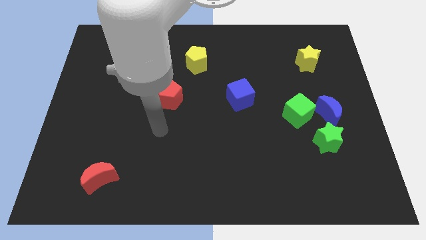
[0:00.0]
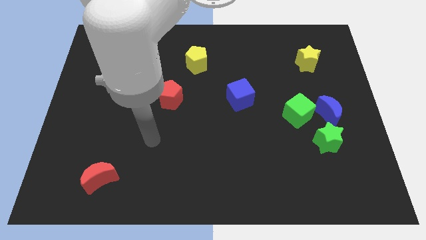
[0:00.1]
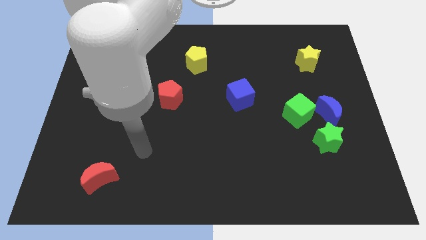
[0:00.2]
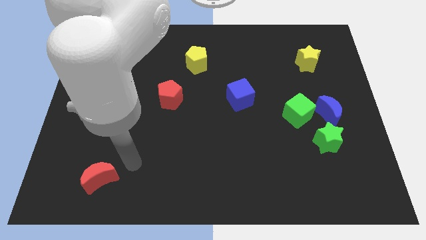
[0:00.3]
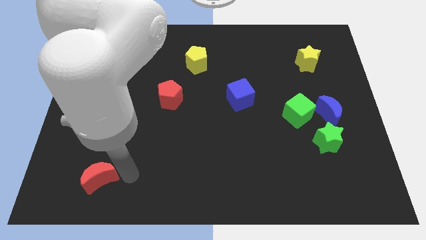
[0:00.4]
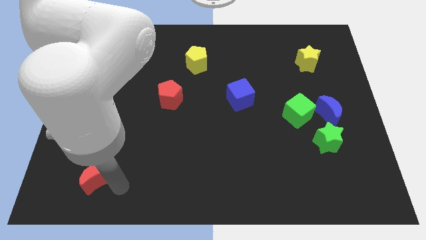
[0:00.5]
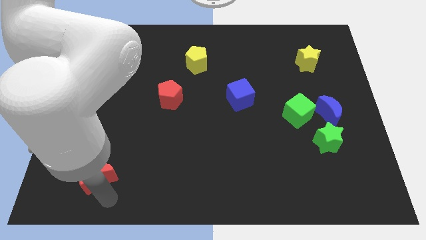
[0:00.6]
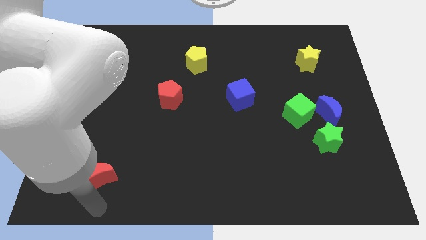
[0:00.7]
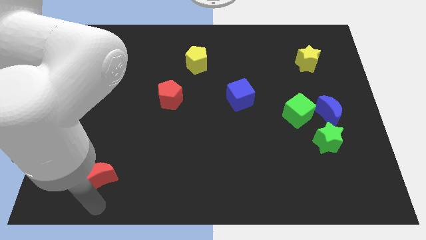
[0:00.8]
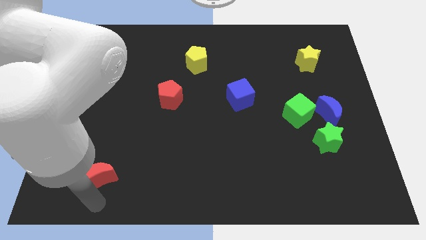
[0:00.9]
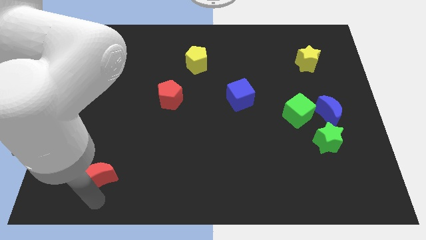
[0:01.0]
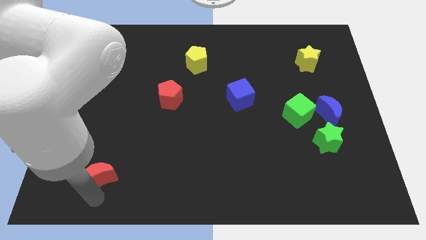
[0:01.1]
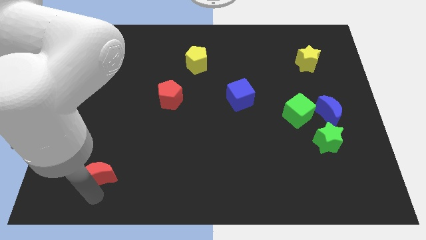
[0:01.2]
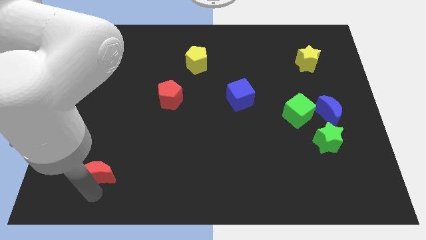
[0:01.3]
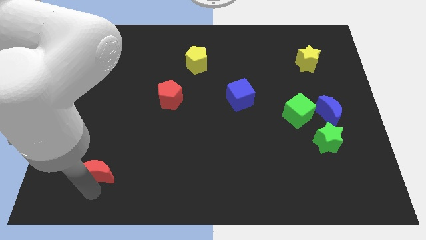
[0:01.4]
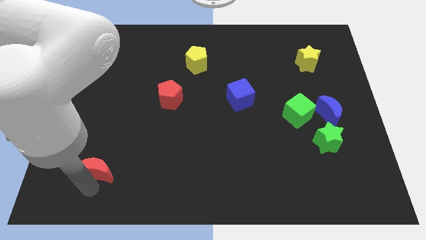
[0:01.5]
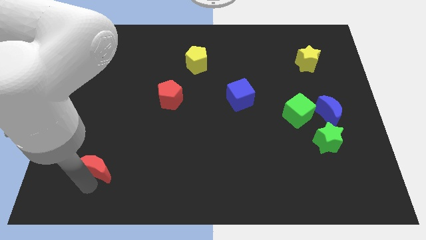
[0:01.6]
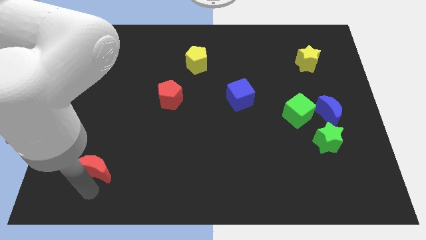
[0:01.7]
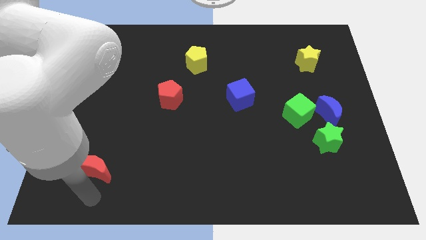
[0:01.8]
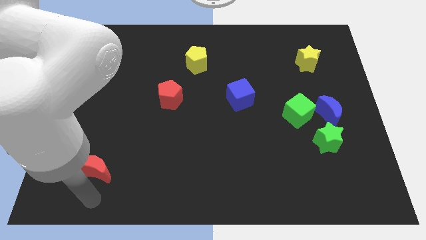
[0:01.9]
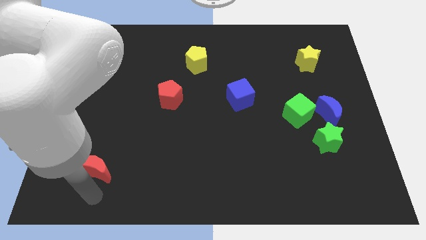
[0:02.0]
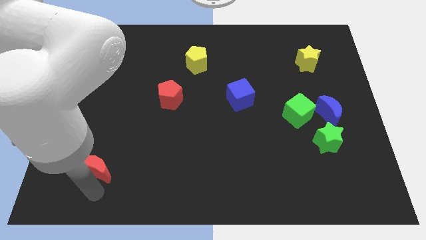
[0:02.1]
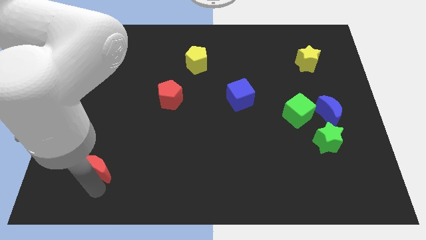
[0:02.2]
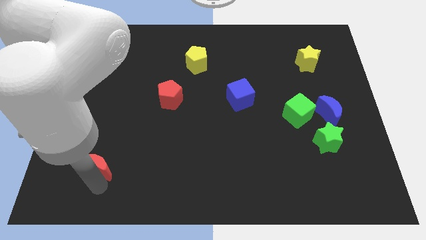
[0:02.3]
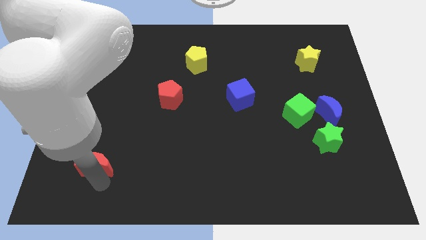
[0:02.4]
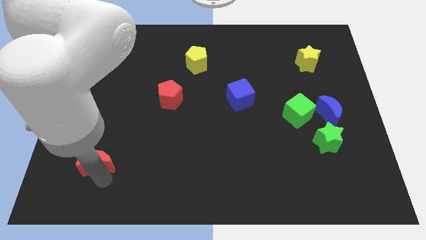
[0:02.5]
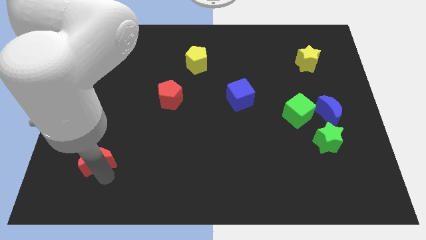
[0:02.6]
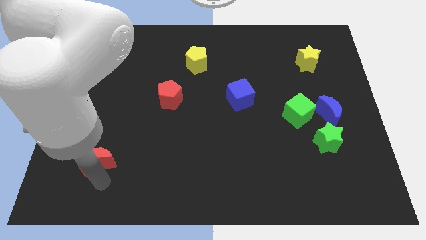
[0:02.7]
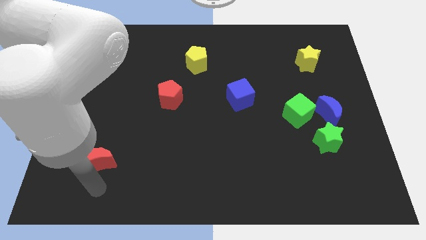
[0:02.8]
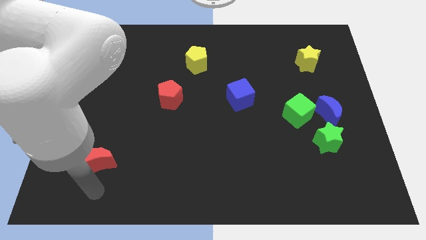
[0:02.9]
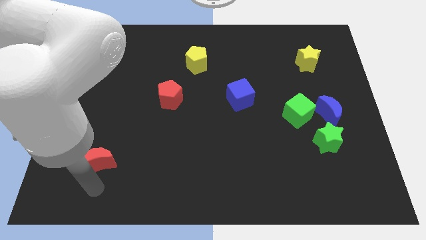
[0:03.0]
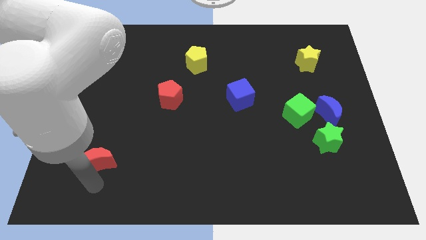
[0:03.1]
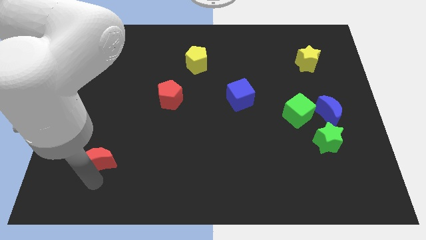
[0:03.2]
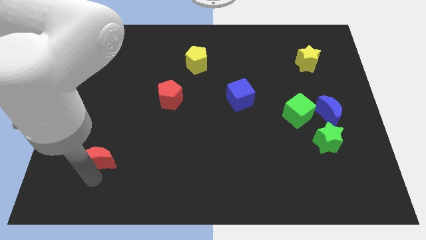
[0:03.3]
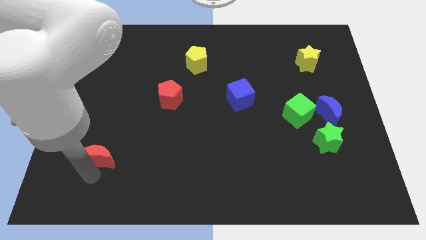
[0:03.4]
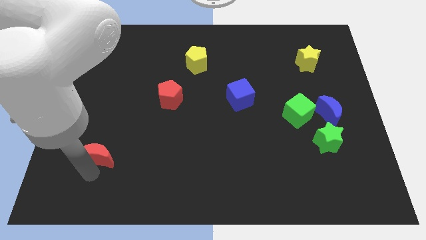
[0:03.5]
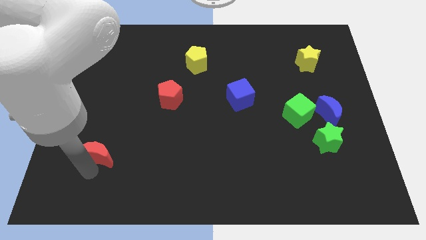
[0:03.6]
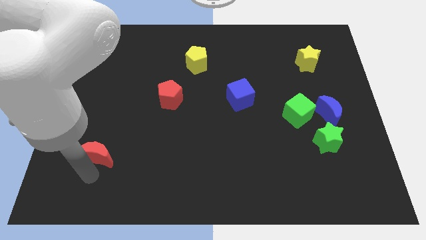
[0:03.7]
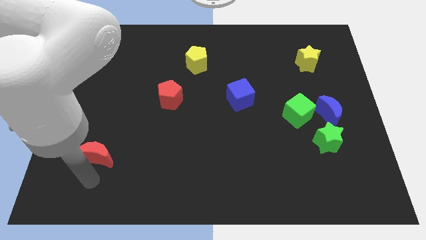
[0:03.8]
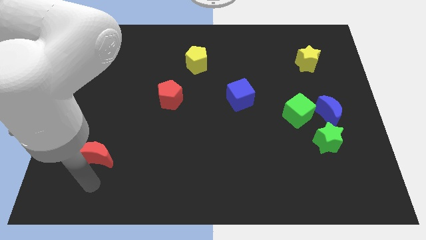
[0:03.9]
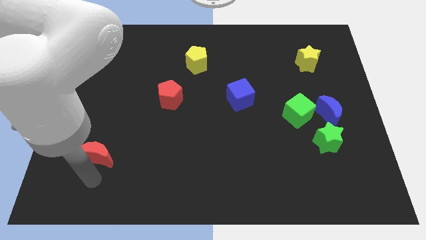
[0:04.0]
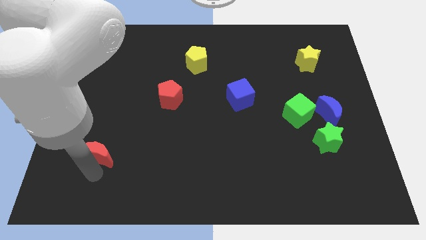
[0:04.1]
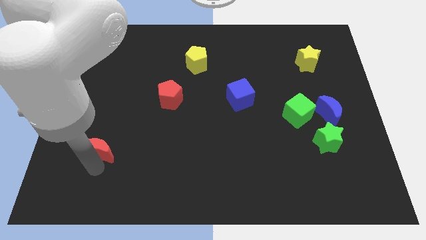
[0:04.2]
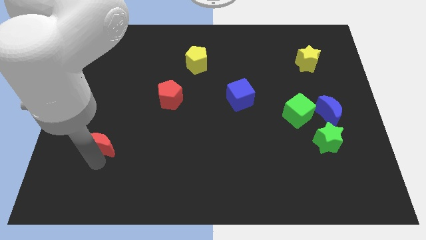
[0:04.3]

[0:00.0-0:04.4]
slightly move the red moon up

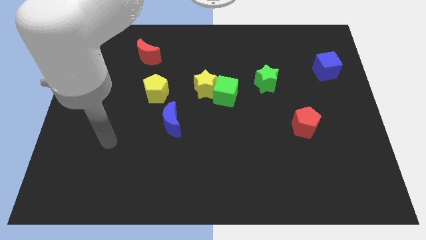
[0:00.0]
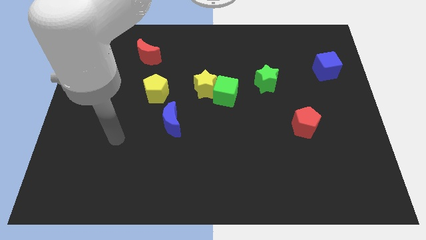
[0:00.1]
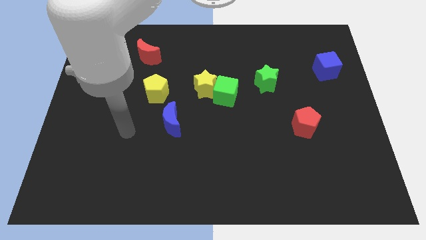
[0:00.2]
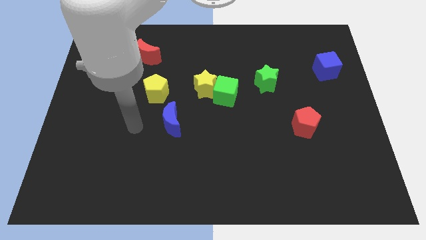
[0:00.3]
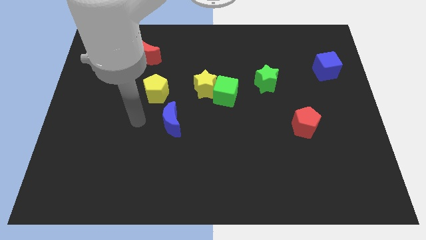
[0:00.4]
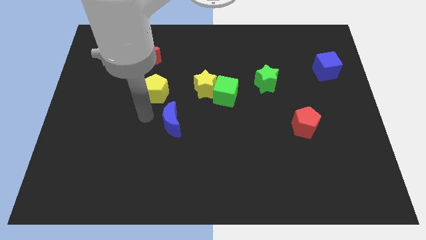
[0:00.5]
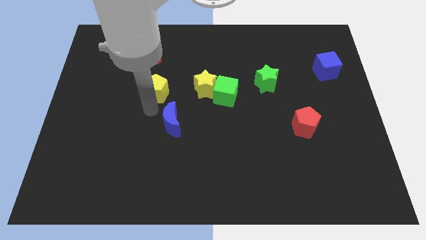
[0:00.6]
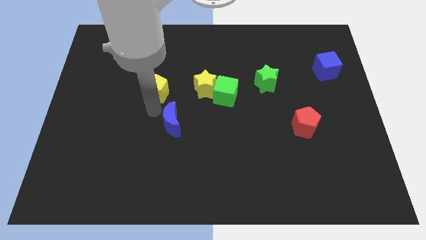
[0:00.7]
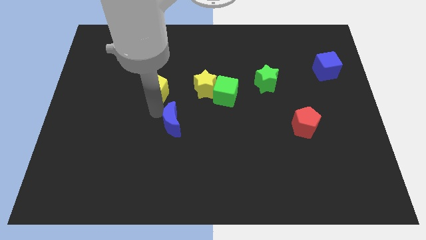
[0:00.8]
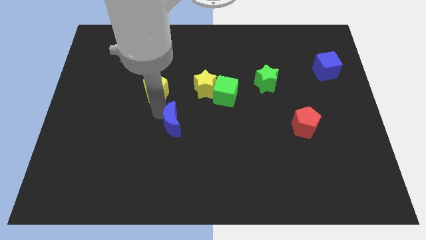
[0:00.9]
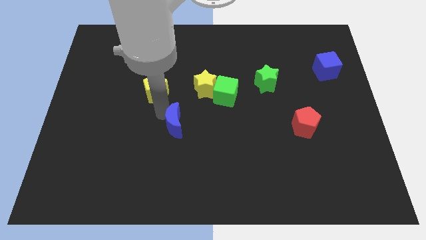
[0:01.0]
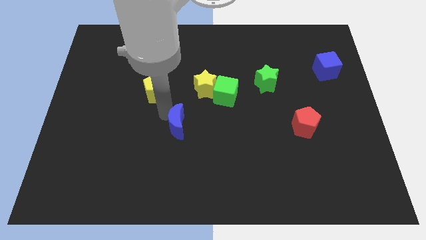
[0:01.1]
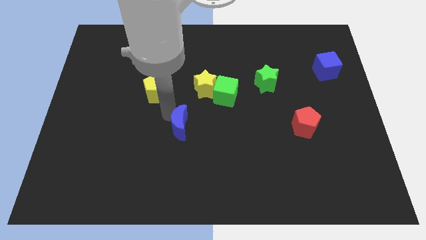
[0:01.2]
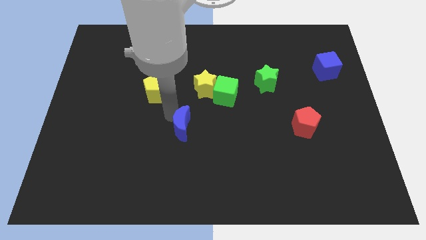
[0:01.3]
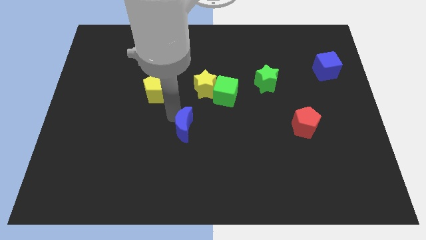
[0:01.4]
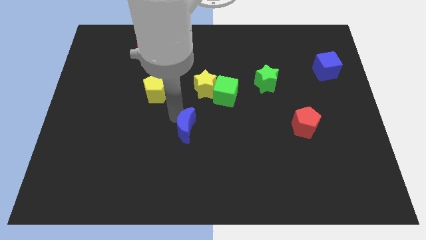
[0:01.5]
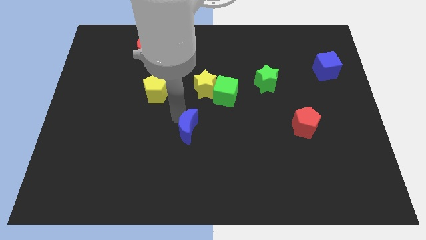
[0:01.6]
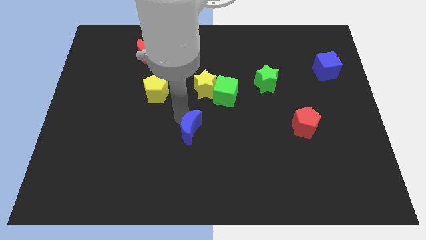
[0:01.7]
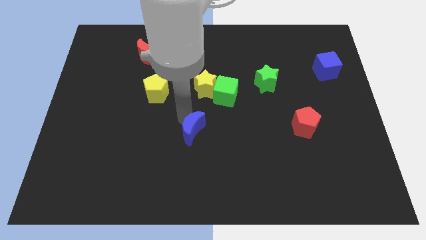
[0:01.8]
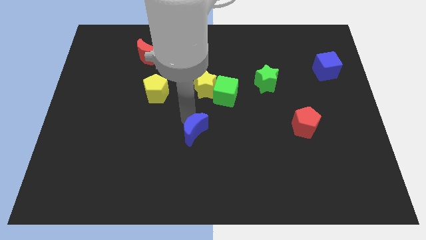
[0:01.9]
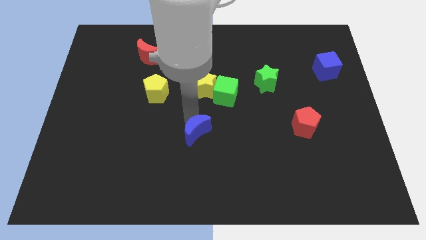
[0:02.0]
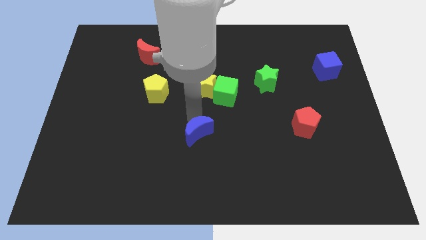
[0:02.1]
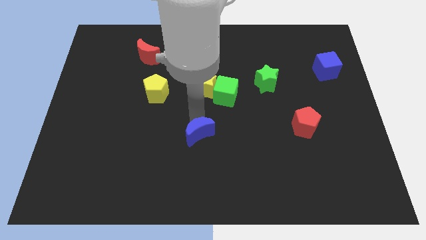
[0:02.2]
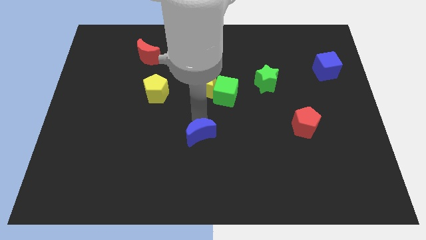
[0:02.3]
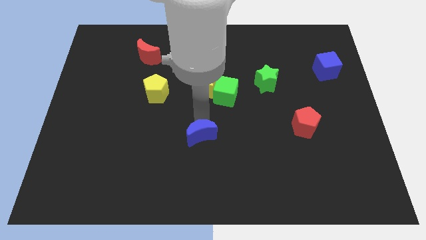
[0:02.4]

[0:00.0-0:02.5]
slide the blue moon somewhat diagonally down and right

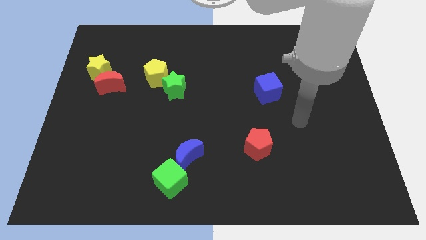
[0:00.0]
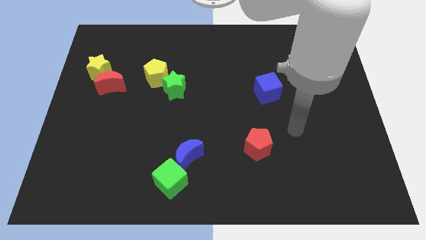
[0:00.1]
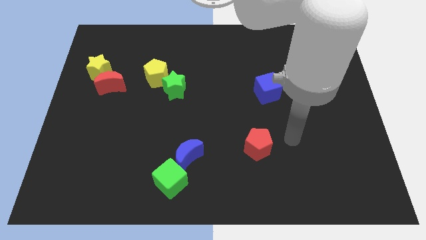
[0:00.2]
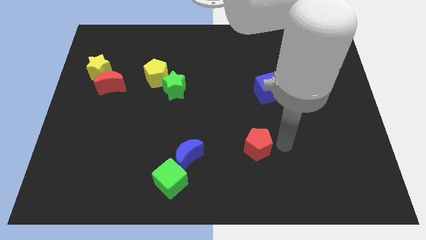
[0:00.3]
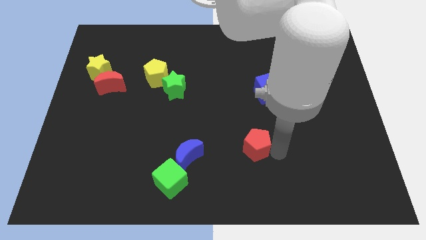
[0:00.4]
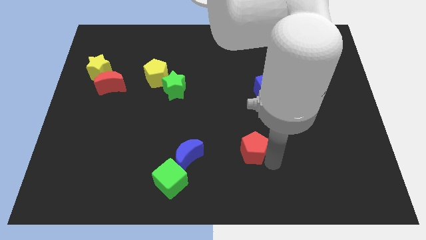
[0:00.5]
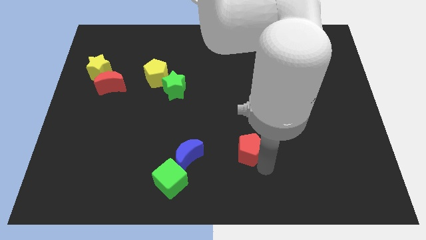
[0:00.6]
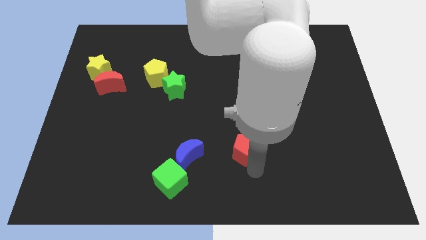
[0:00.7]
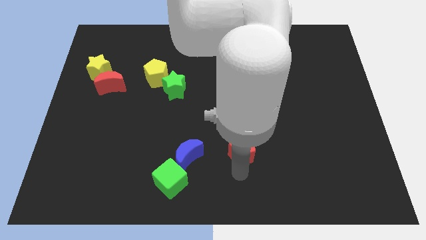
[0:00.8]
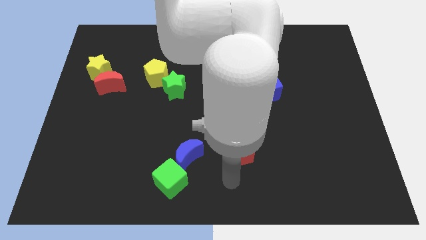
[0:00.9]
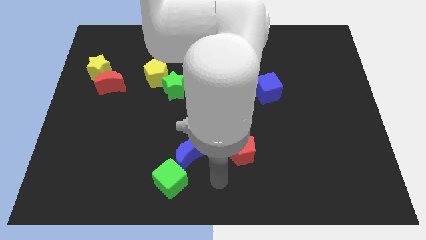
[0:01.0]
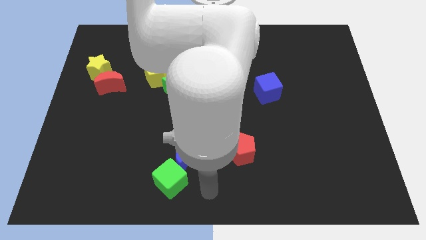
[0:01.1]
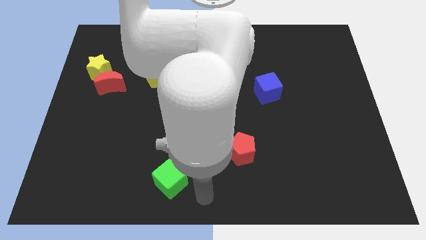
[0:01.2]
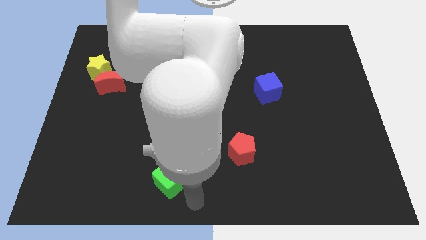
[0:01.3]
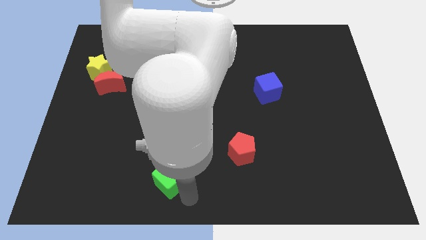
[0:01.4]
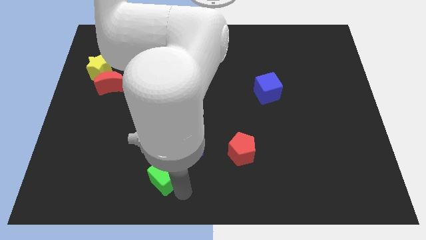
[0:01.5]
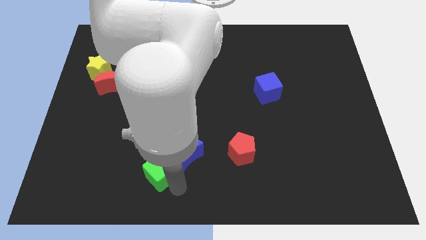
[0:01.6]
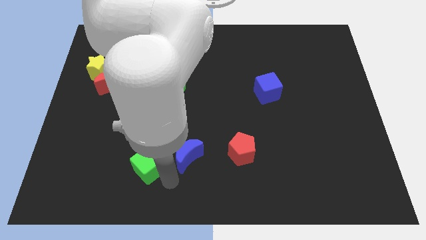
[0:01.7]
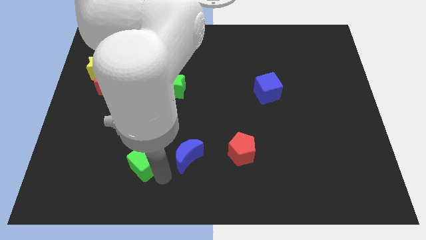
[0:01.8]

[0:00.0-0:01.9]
slightly push the green cube up and to the left
